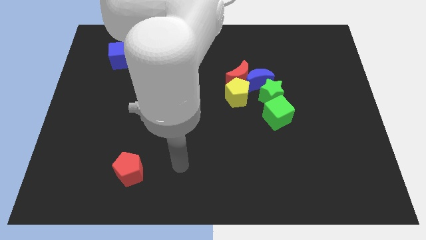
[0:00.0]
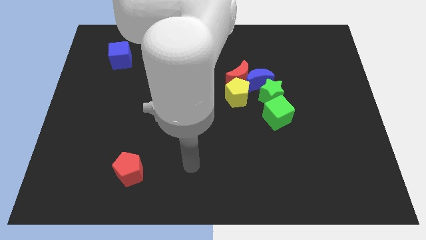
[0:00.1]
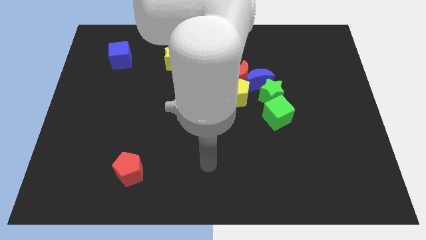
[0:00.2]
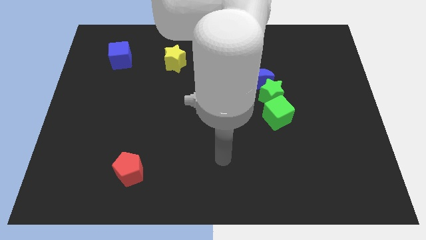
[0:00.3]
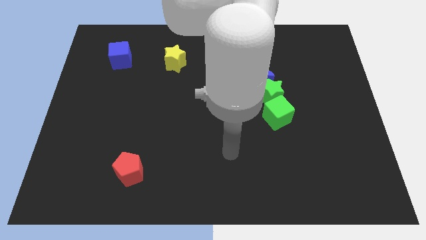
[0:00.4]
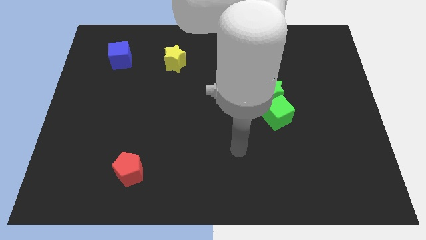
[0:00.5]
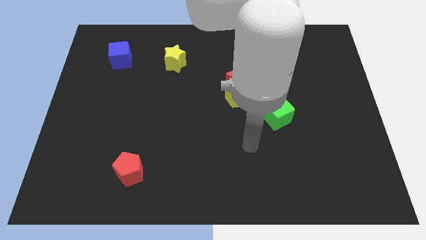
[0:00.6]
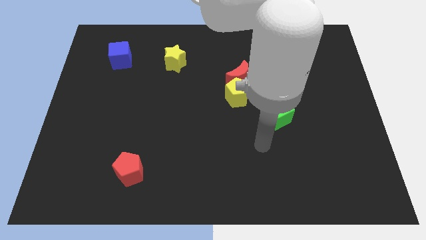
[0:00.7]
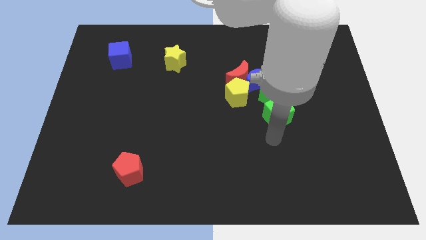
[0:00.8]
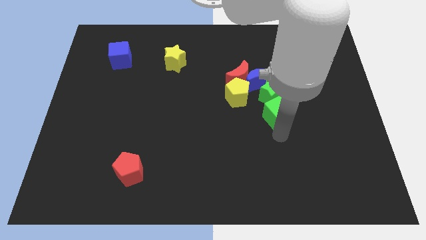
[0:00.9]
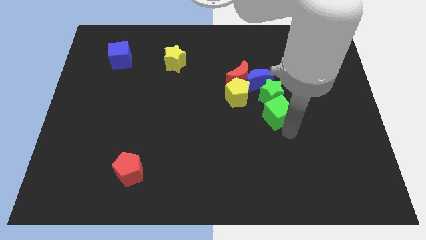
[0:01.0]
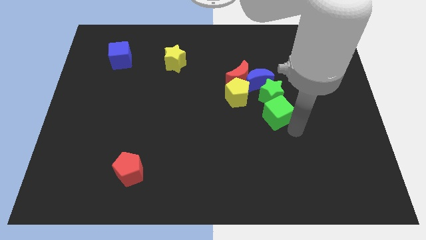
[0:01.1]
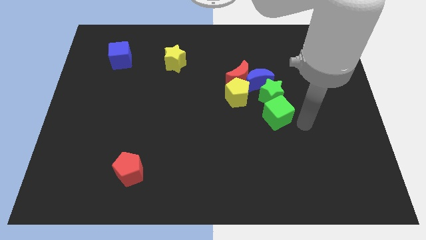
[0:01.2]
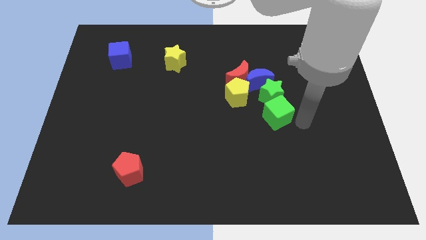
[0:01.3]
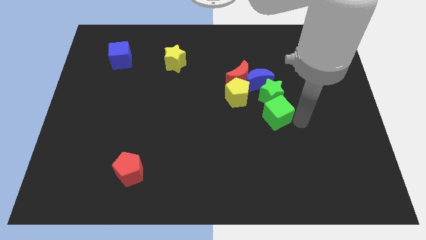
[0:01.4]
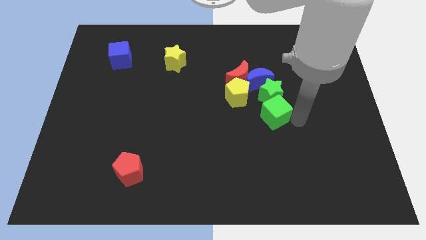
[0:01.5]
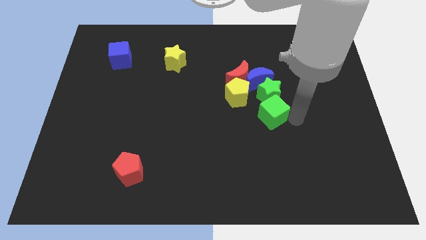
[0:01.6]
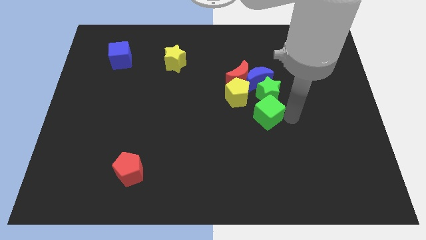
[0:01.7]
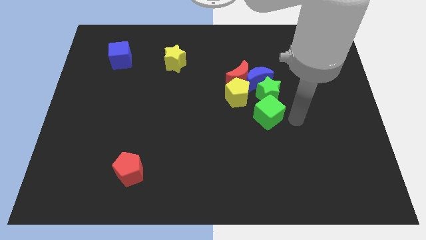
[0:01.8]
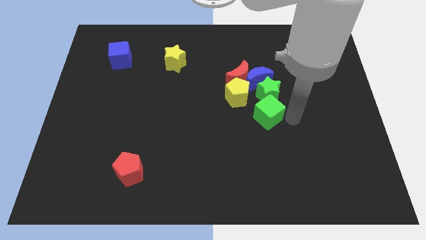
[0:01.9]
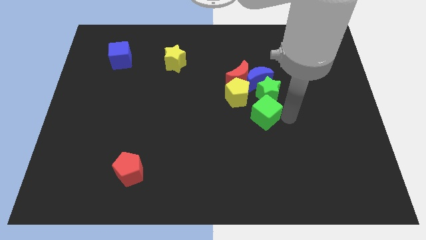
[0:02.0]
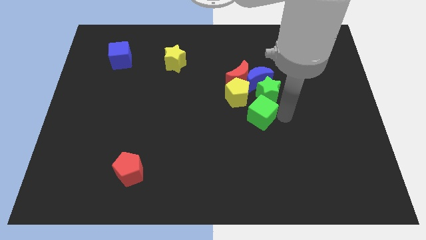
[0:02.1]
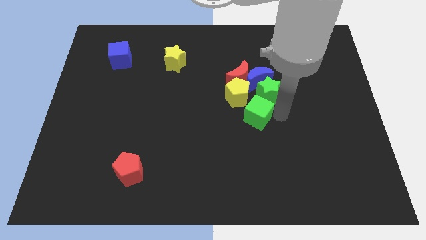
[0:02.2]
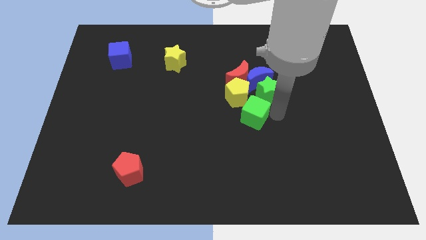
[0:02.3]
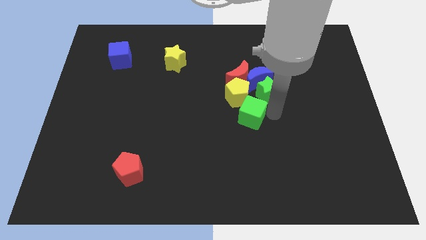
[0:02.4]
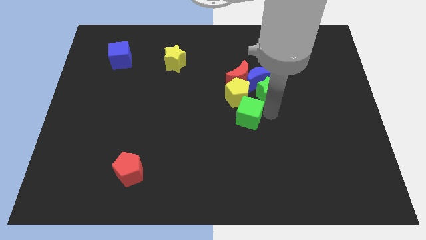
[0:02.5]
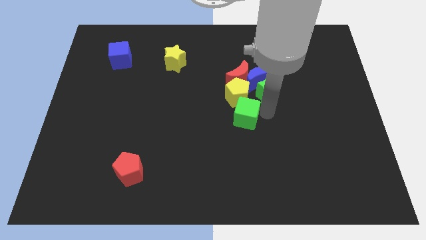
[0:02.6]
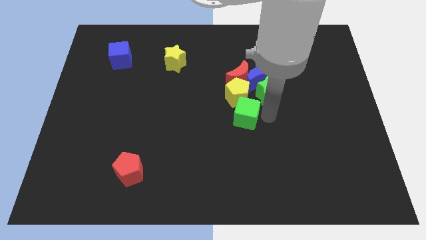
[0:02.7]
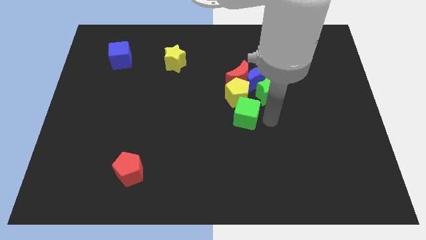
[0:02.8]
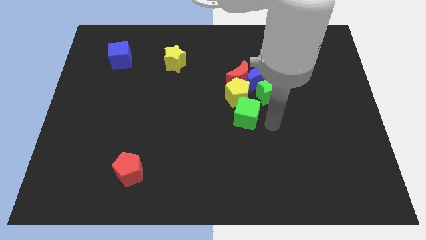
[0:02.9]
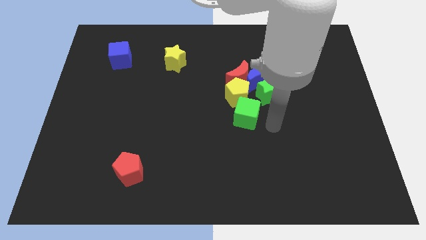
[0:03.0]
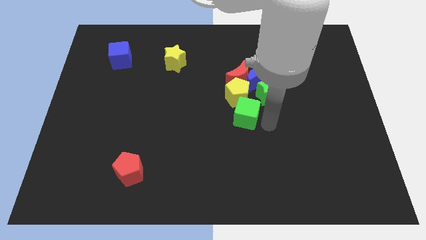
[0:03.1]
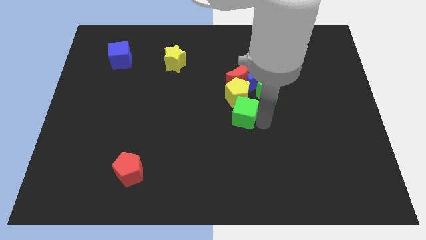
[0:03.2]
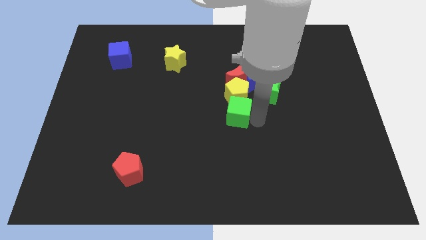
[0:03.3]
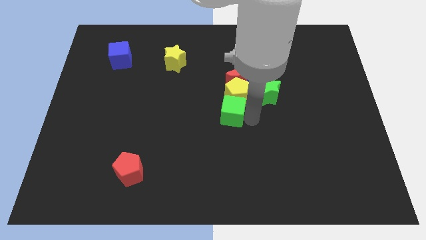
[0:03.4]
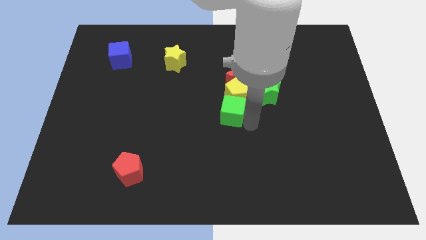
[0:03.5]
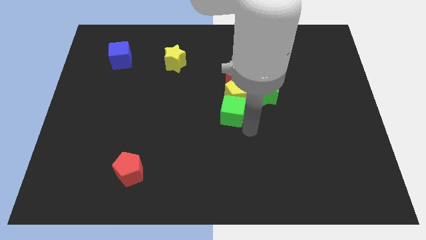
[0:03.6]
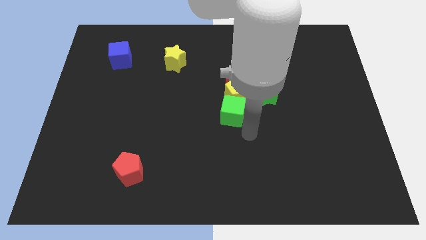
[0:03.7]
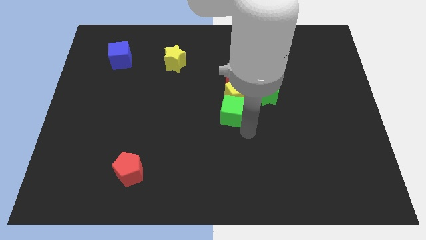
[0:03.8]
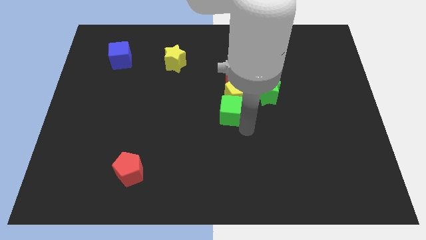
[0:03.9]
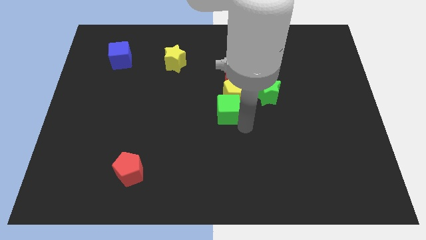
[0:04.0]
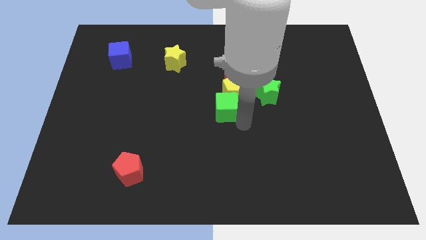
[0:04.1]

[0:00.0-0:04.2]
slide the green cube upwards and then left a little

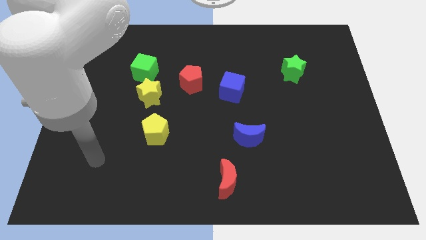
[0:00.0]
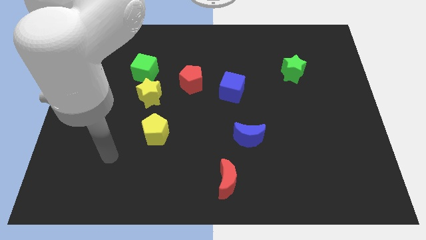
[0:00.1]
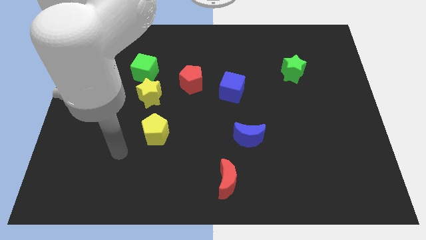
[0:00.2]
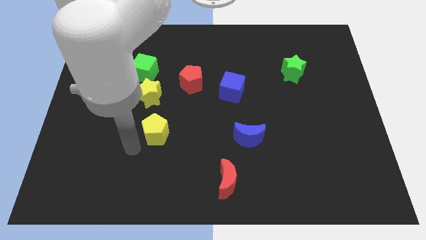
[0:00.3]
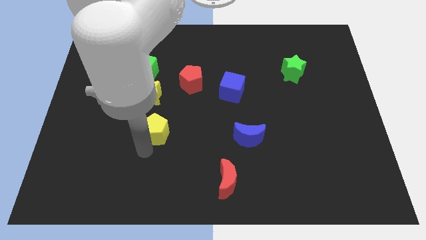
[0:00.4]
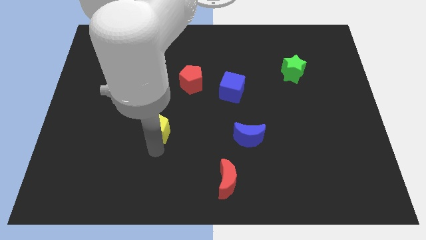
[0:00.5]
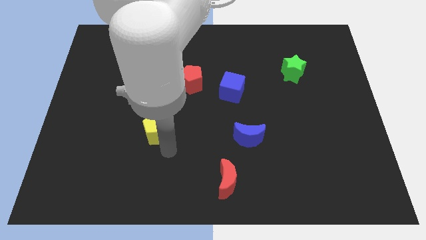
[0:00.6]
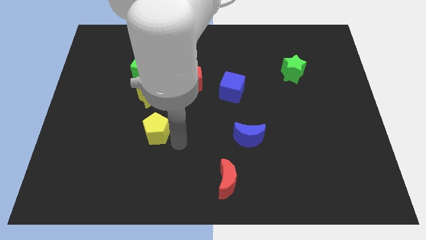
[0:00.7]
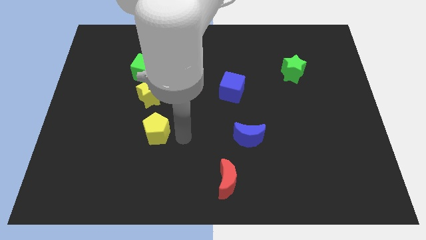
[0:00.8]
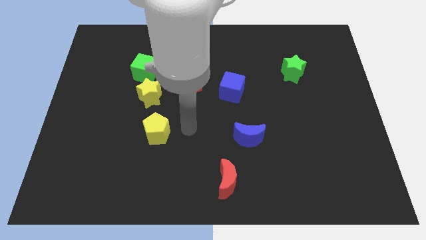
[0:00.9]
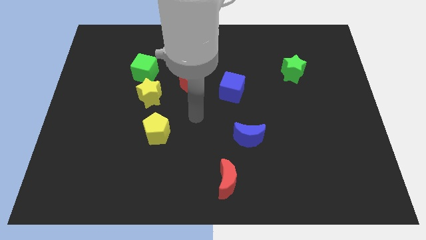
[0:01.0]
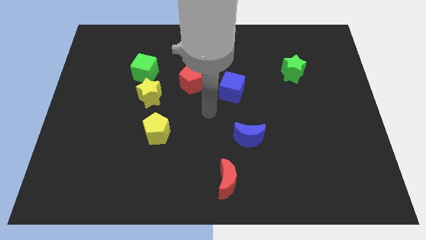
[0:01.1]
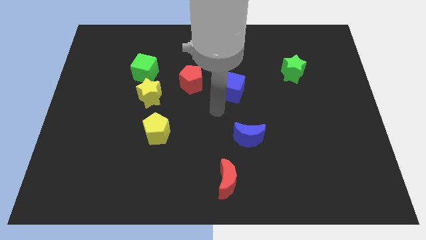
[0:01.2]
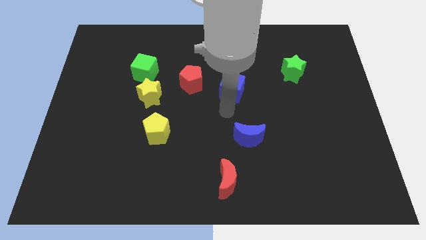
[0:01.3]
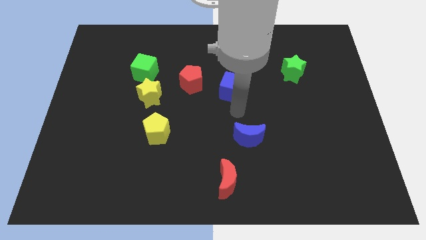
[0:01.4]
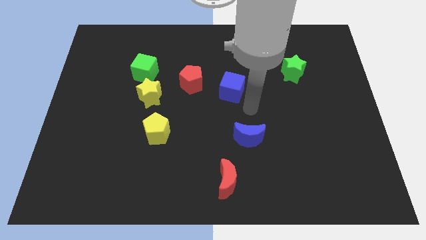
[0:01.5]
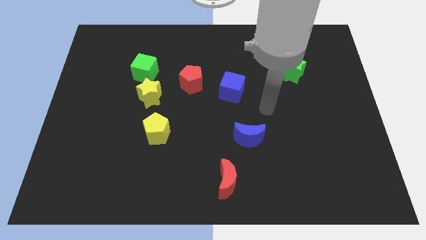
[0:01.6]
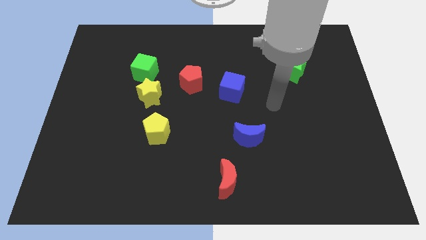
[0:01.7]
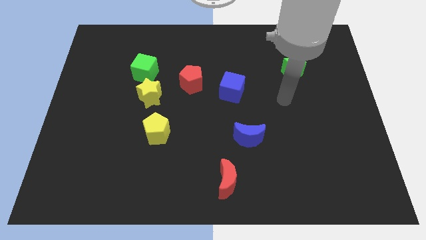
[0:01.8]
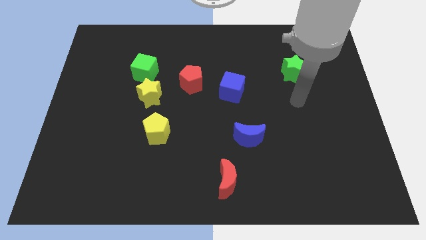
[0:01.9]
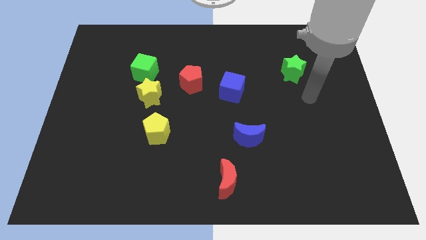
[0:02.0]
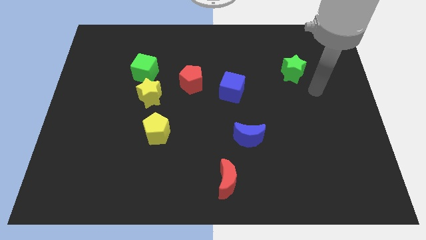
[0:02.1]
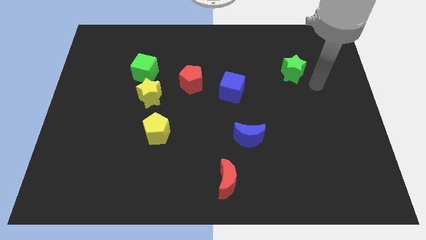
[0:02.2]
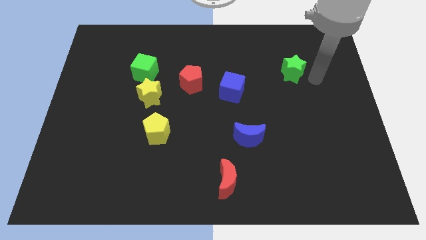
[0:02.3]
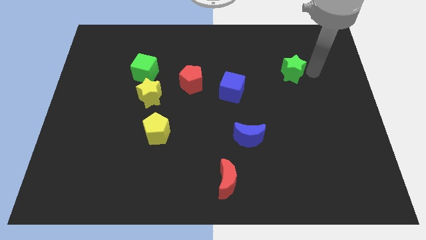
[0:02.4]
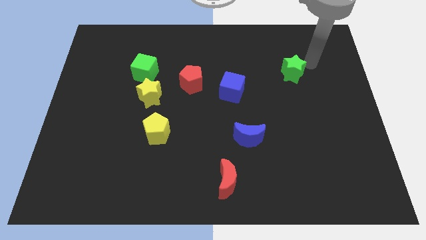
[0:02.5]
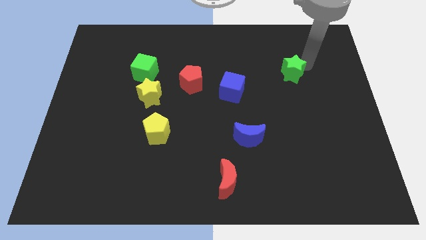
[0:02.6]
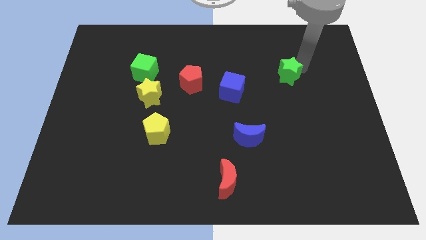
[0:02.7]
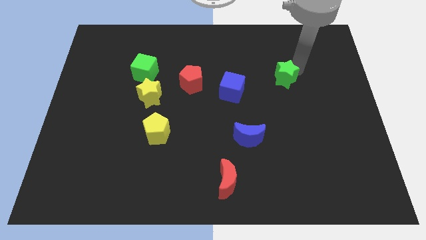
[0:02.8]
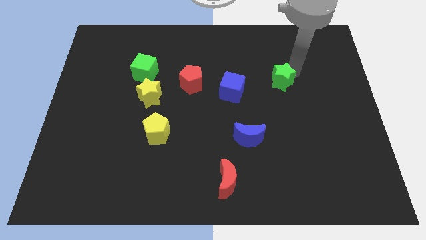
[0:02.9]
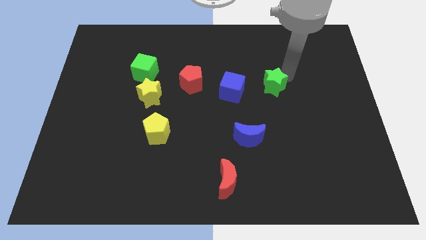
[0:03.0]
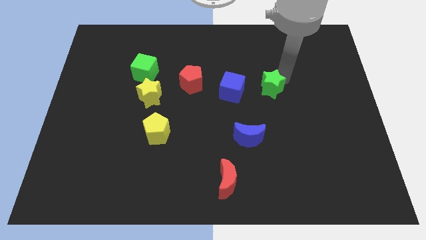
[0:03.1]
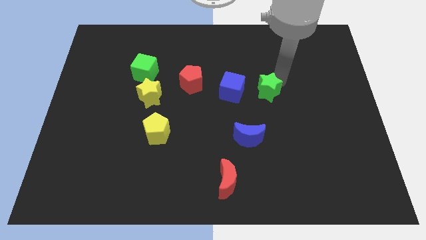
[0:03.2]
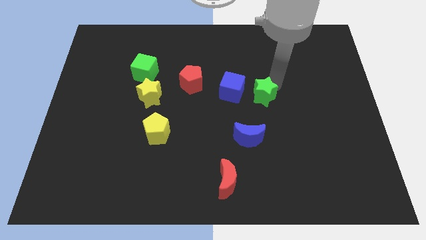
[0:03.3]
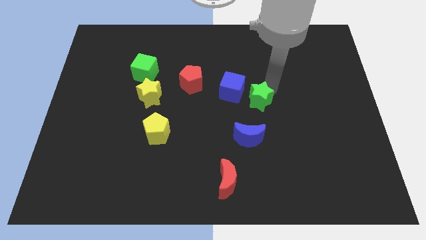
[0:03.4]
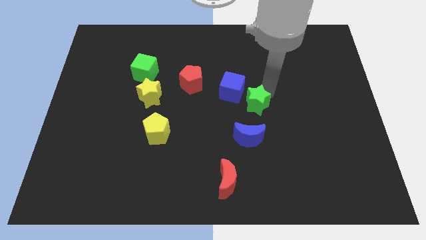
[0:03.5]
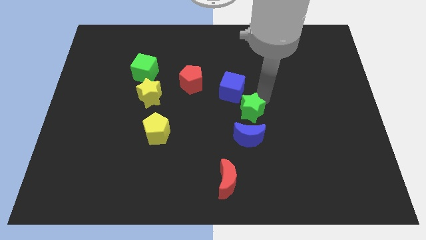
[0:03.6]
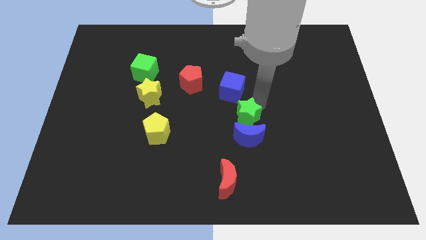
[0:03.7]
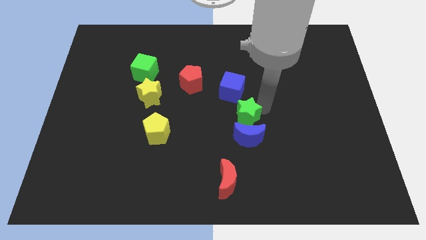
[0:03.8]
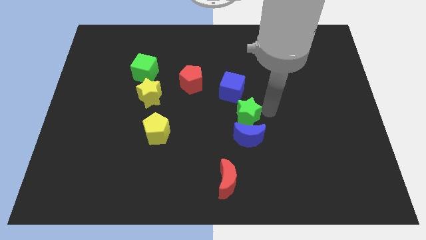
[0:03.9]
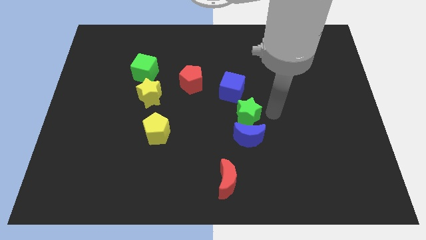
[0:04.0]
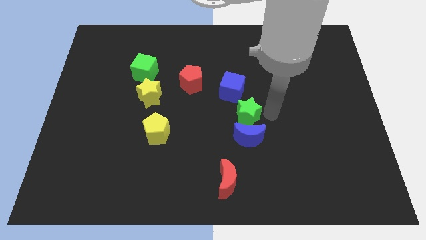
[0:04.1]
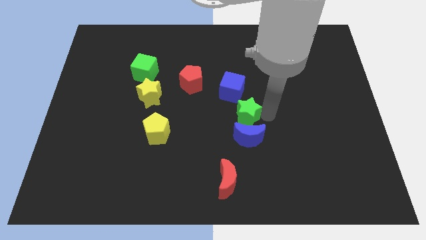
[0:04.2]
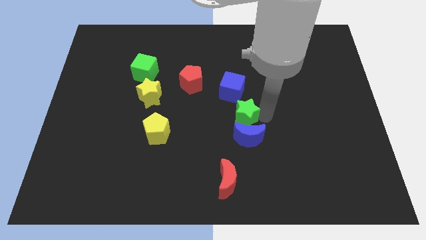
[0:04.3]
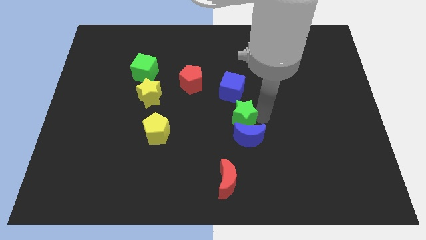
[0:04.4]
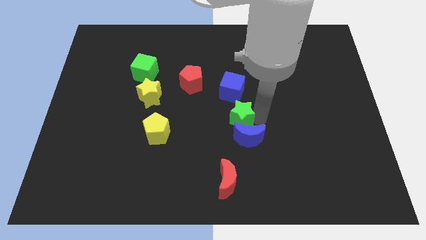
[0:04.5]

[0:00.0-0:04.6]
push the green star down and left diagonally
